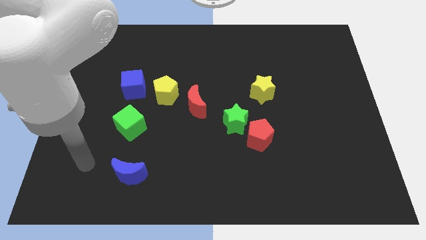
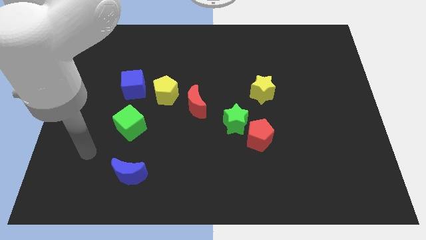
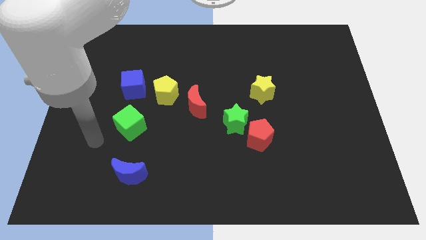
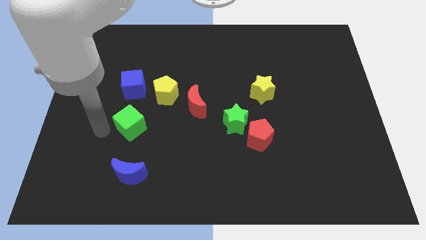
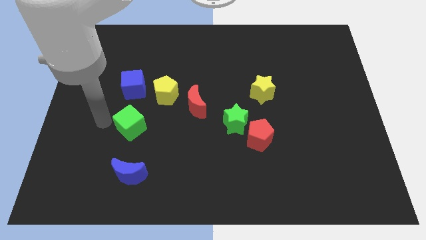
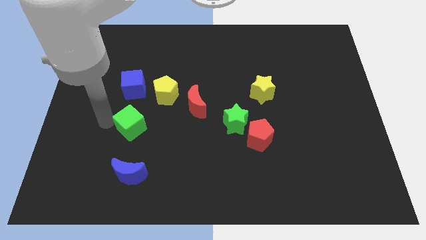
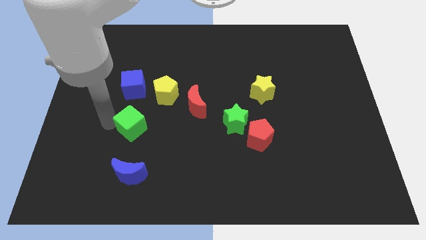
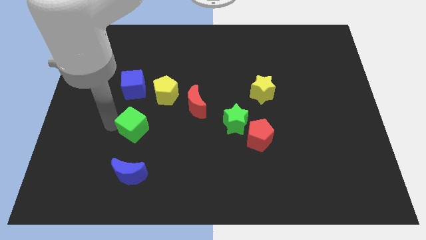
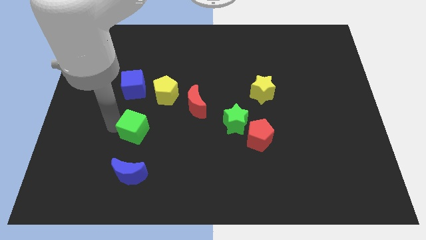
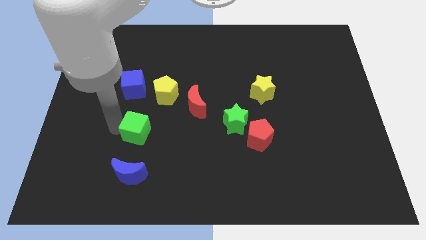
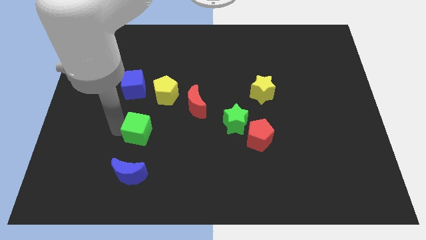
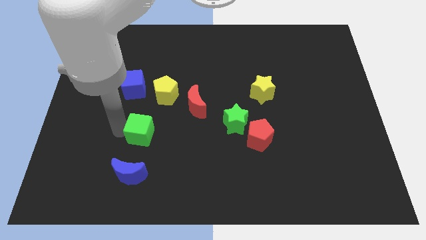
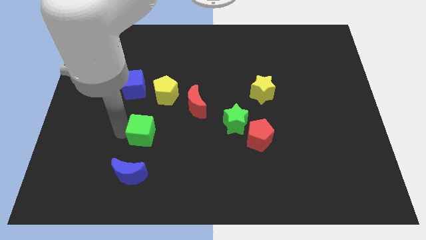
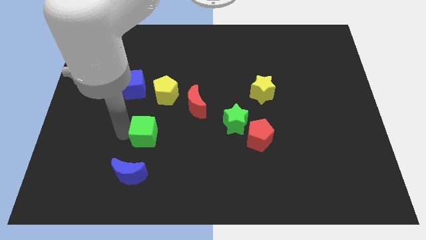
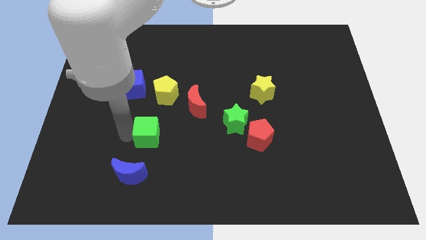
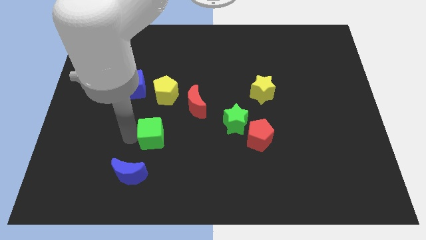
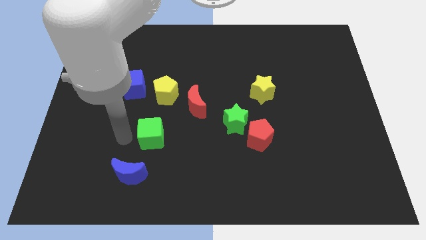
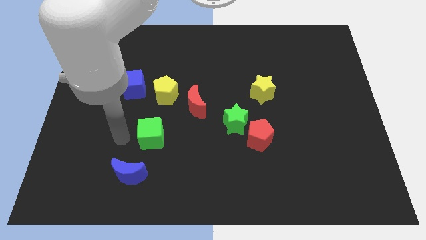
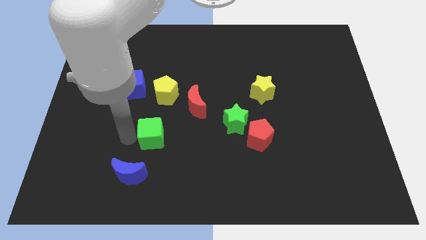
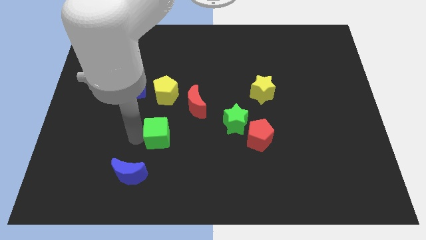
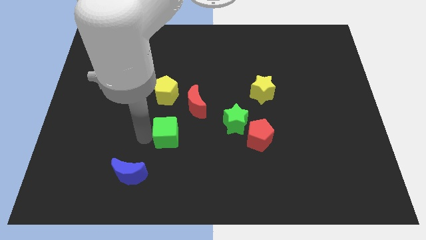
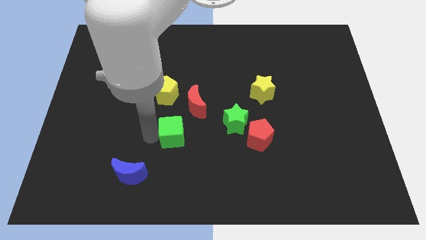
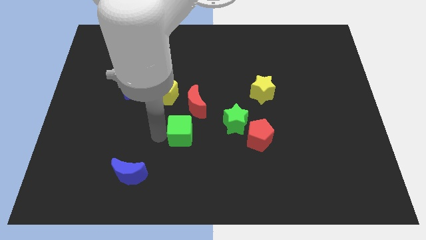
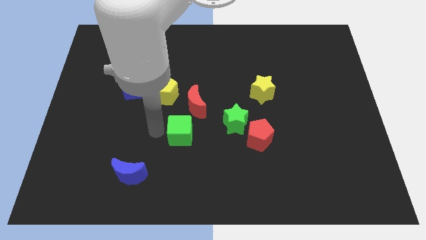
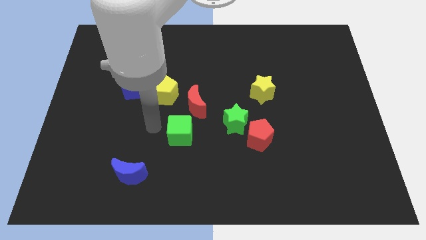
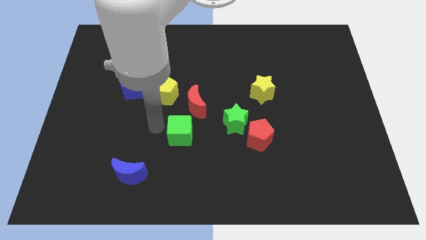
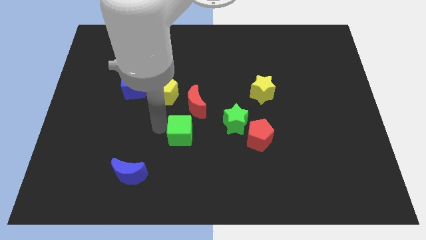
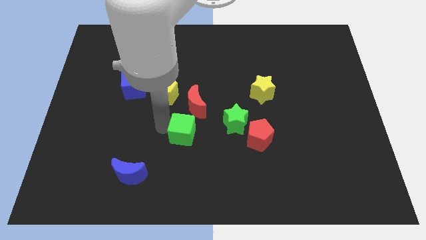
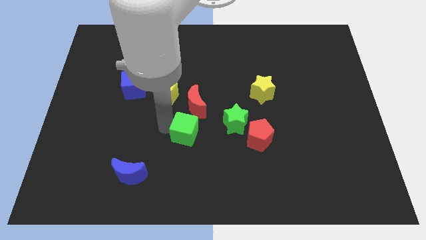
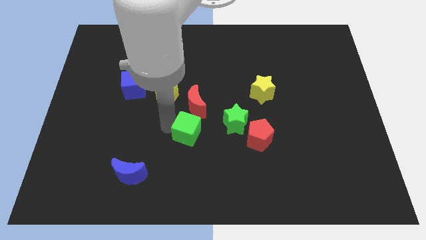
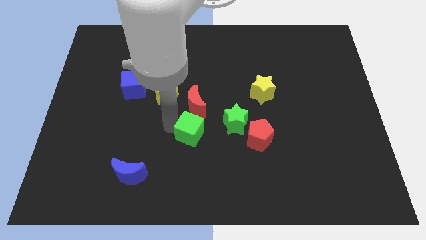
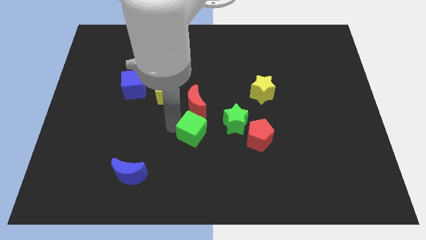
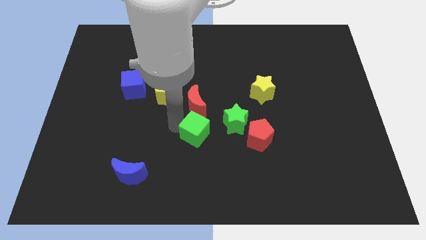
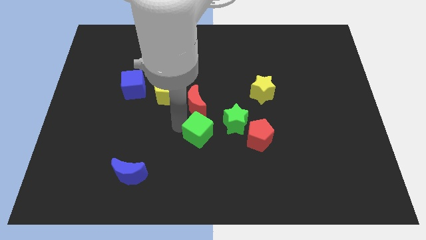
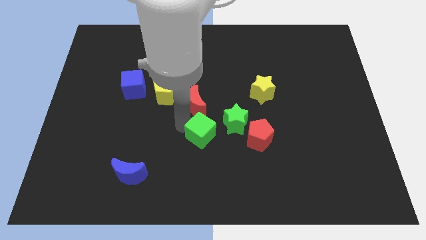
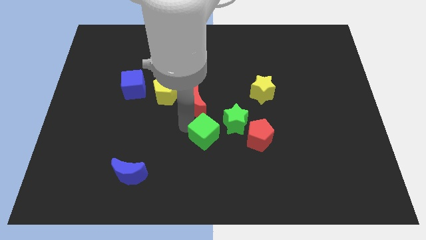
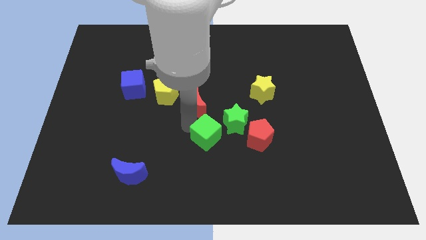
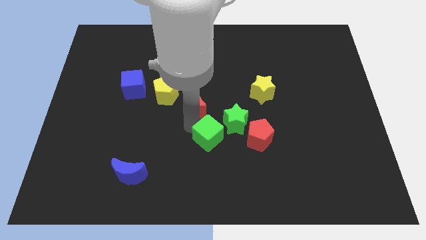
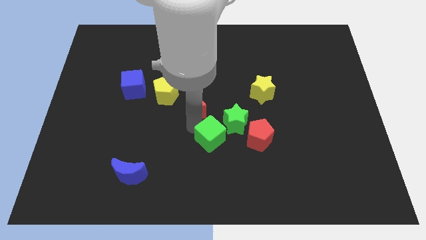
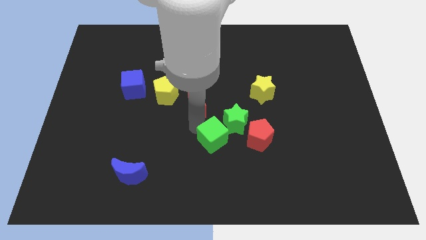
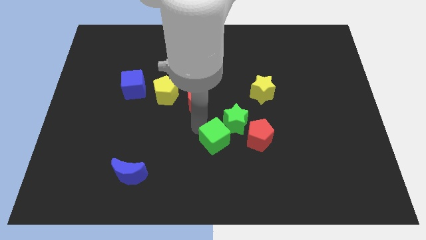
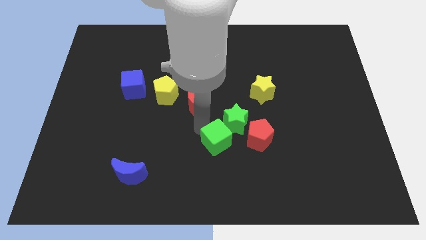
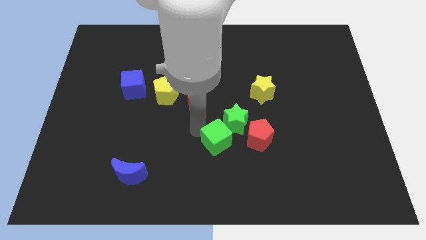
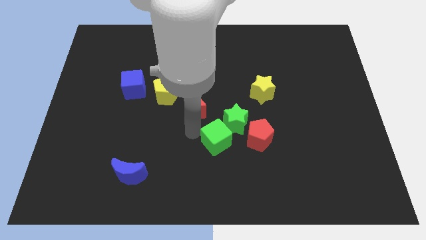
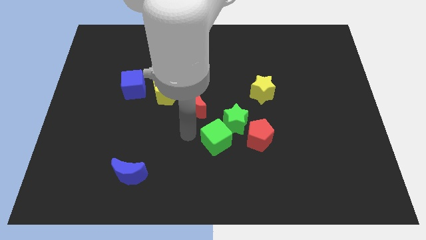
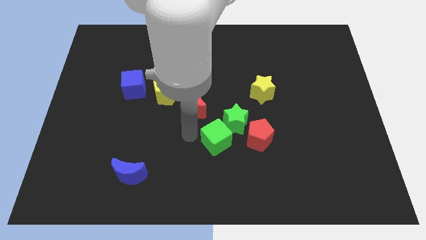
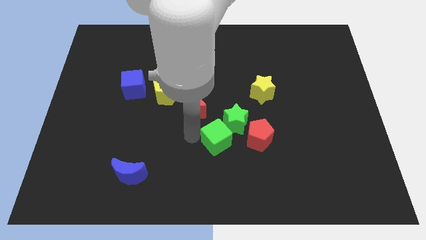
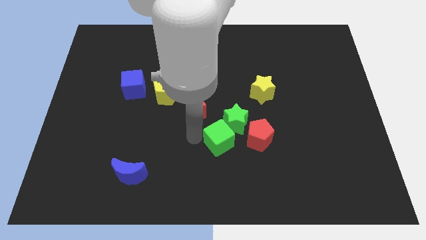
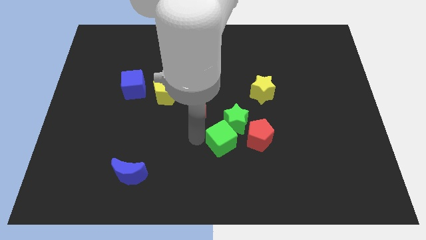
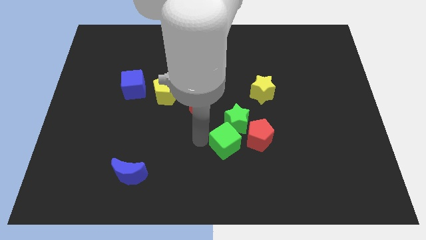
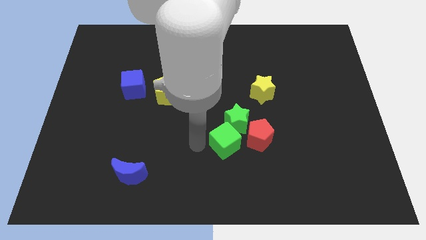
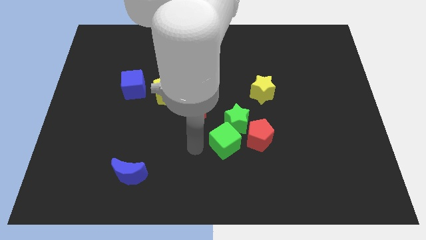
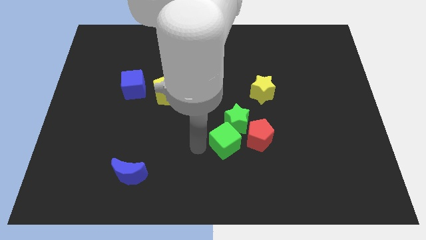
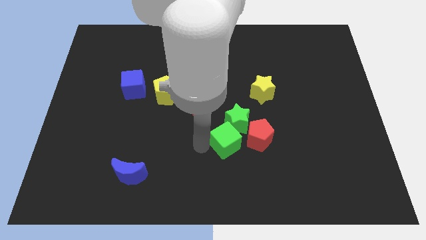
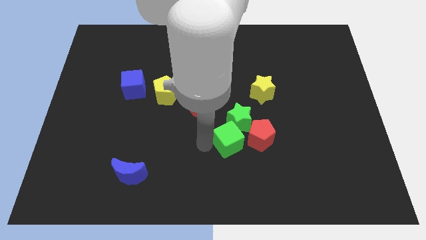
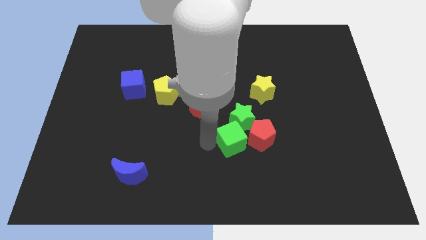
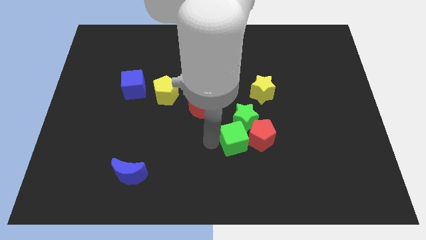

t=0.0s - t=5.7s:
push the green cube to the red pentagon

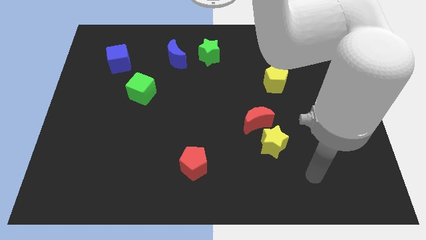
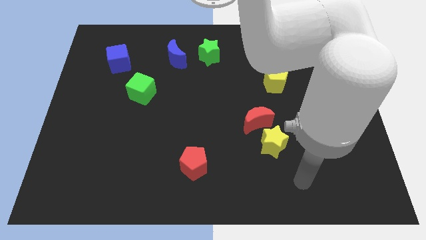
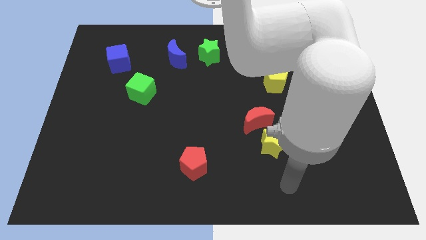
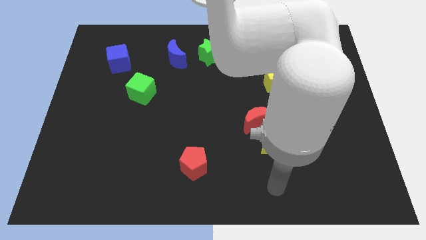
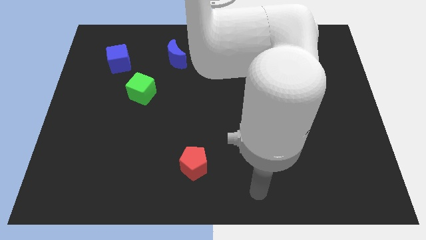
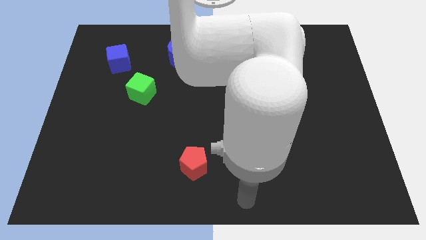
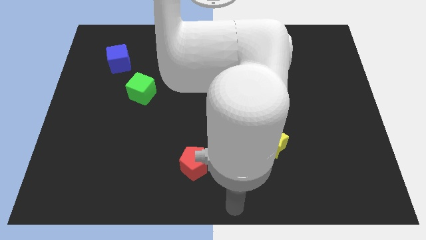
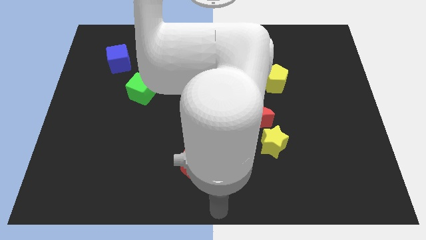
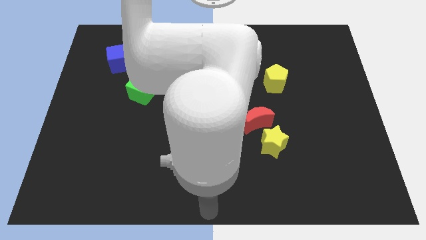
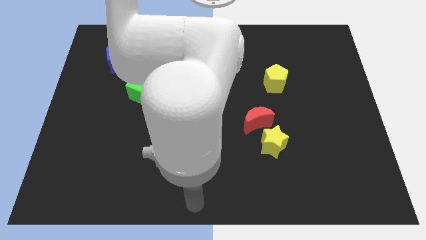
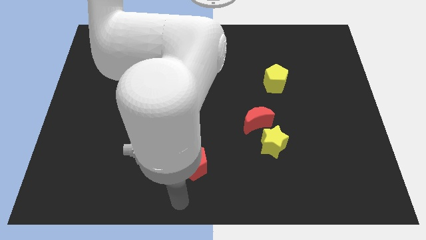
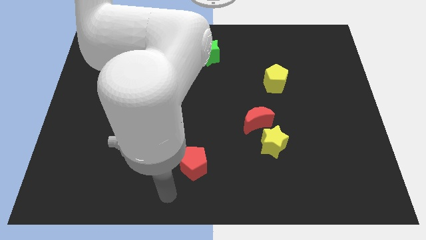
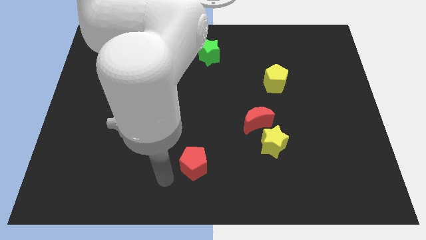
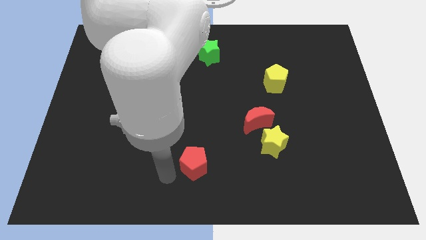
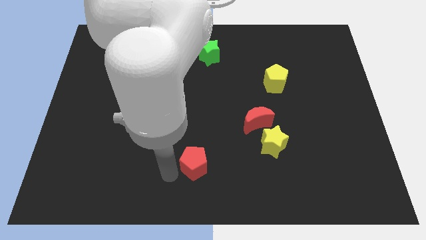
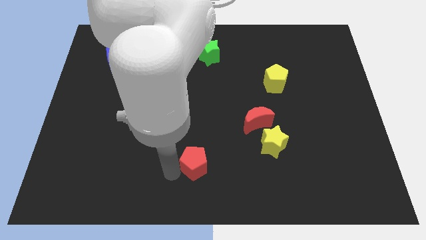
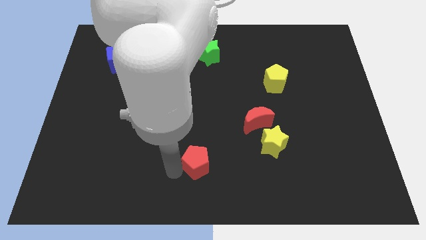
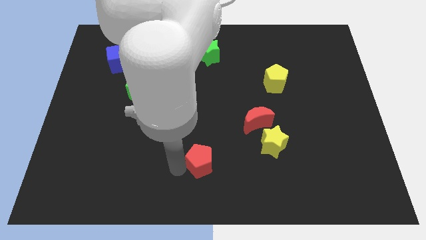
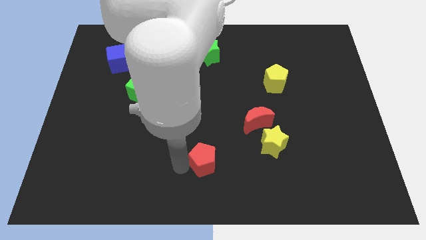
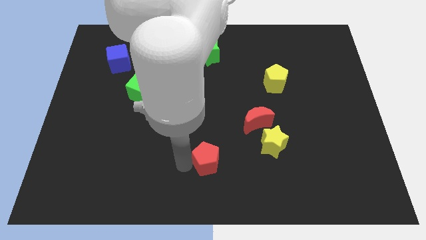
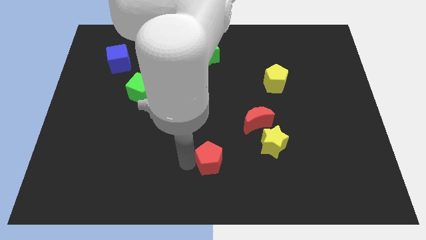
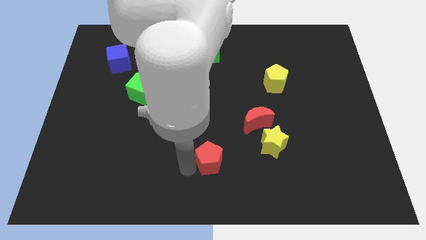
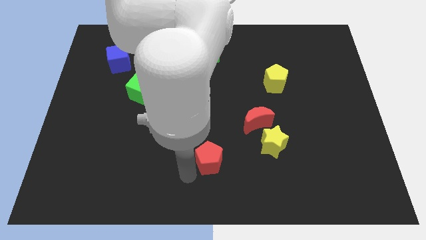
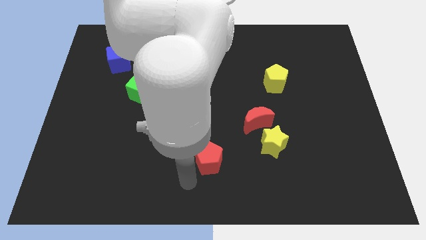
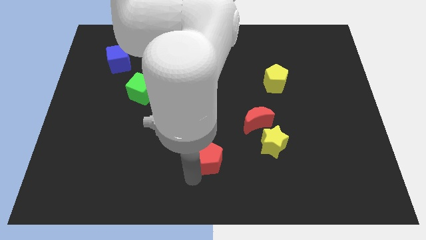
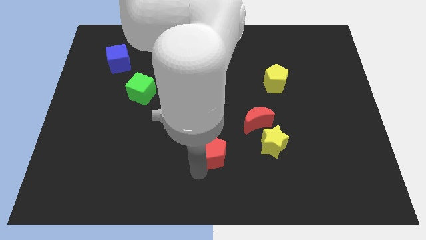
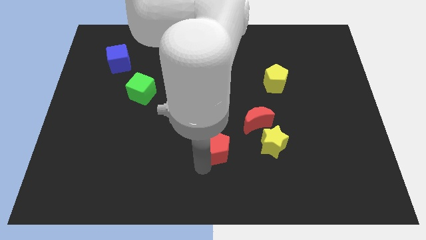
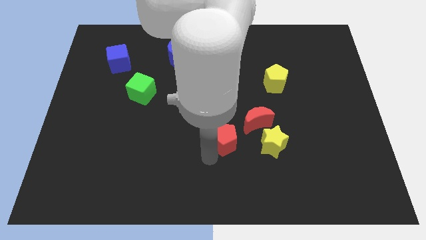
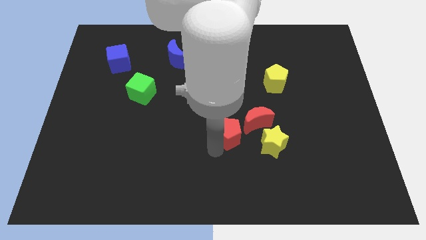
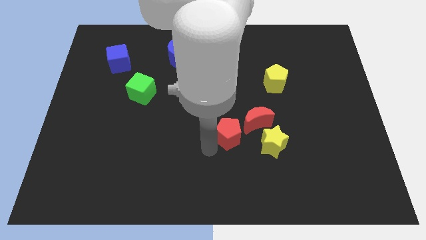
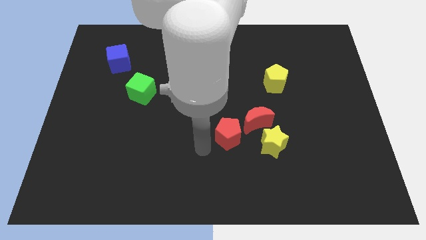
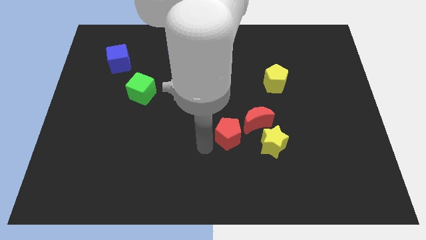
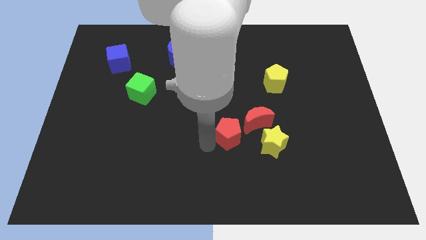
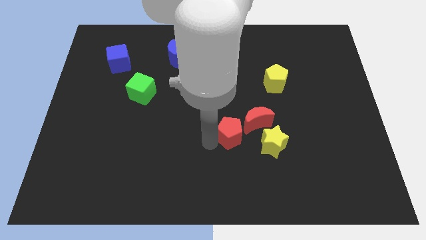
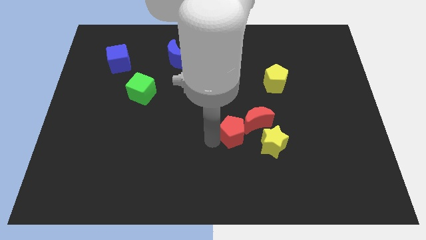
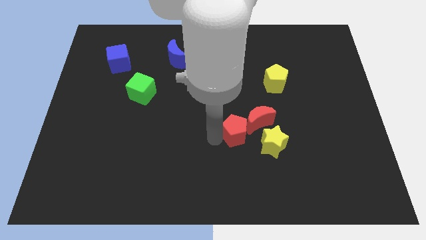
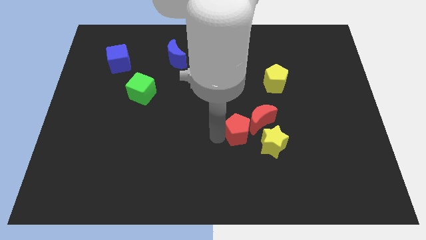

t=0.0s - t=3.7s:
push the red pentagon to the red moon
